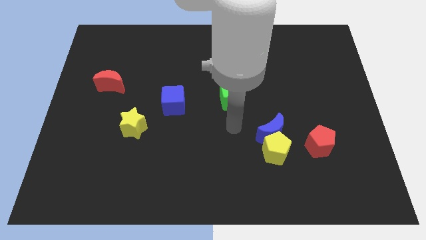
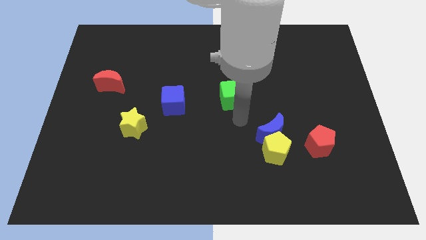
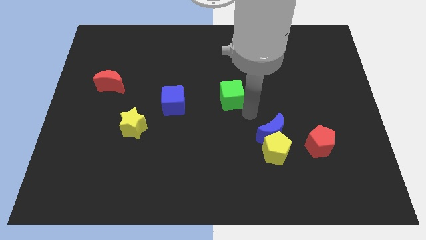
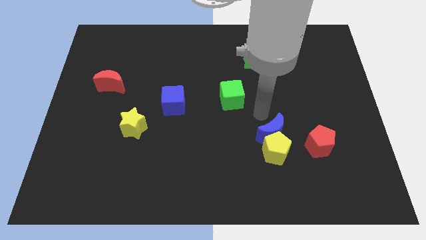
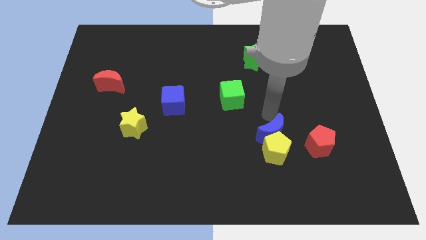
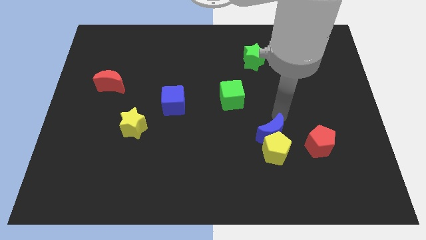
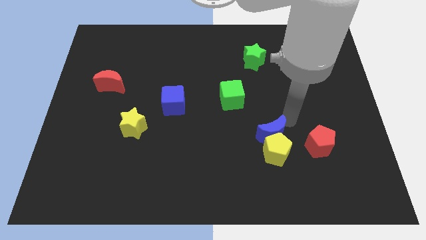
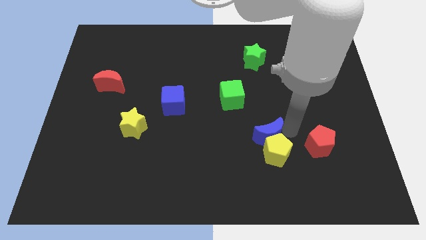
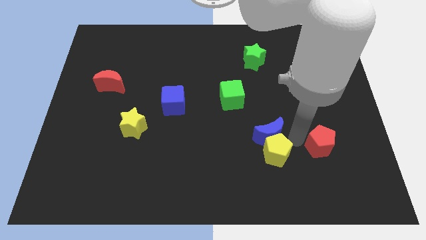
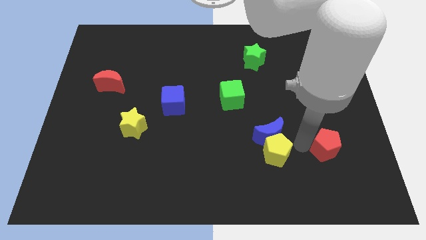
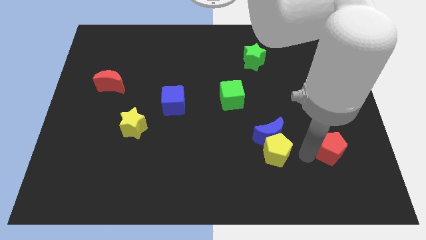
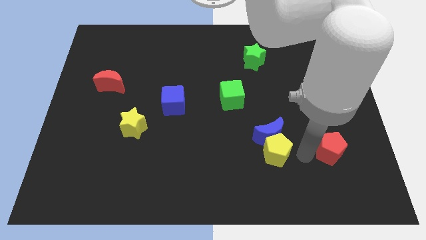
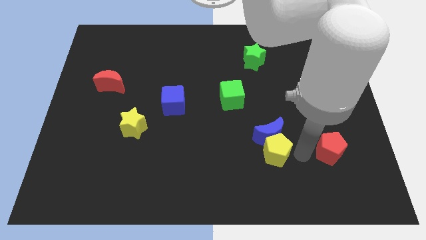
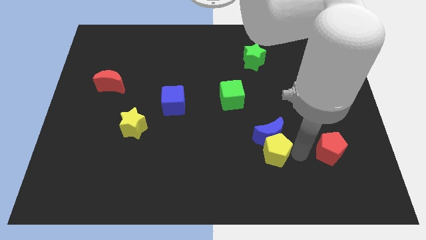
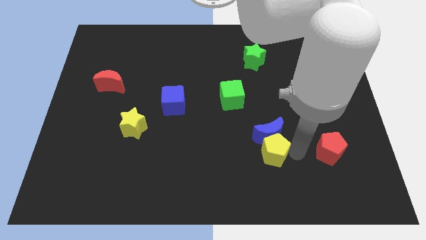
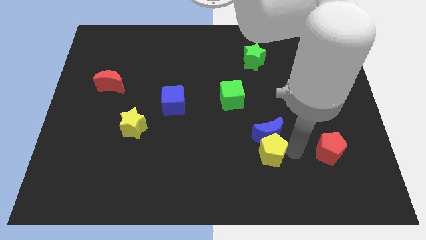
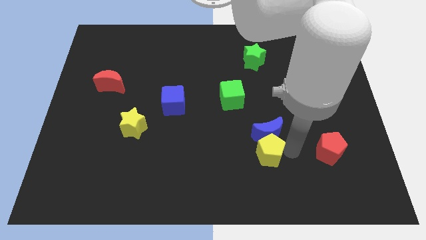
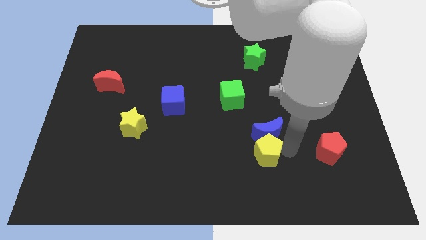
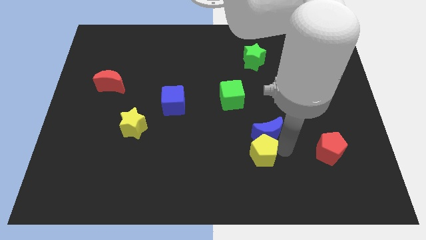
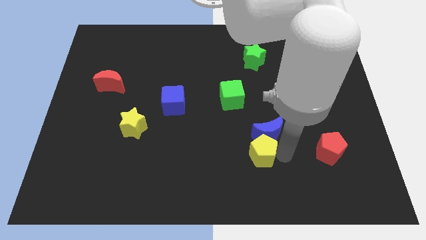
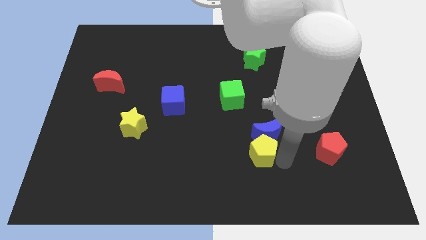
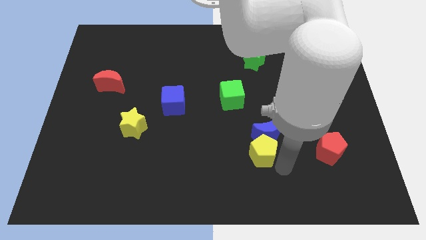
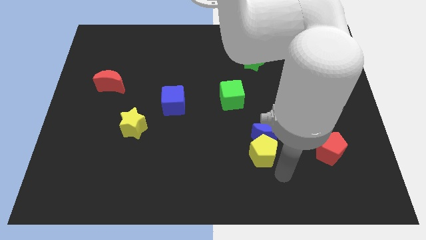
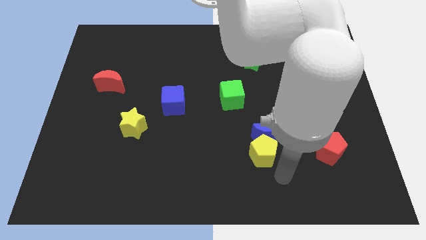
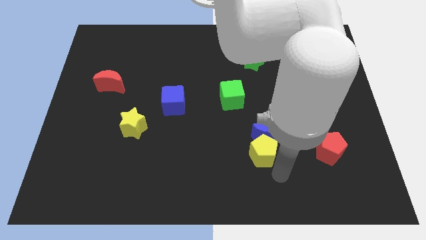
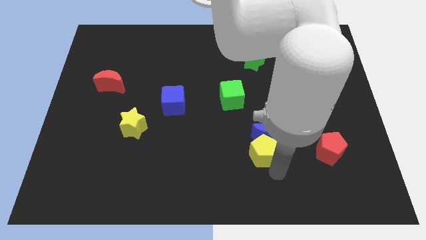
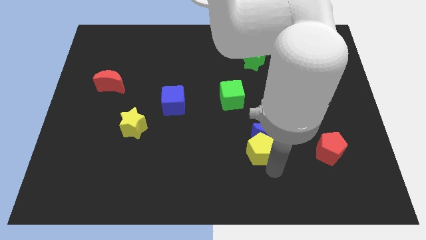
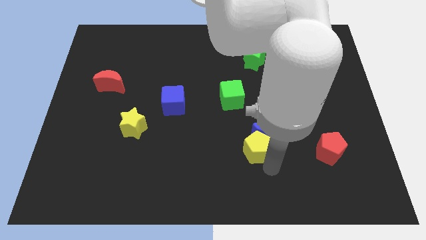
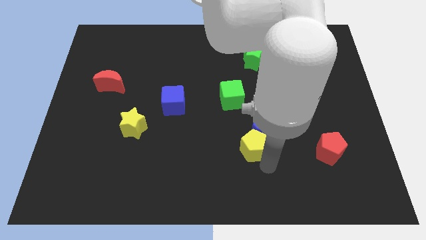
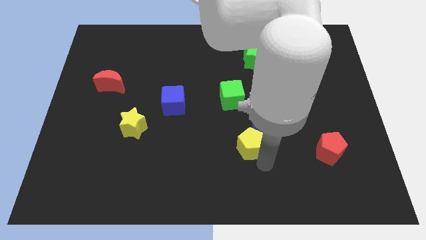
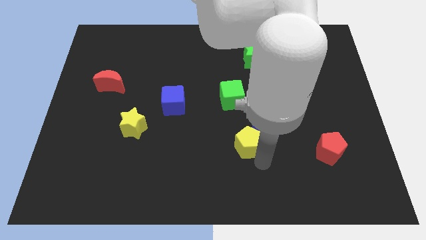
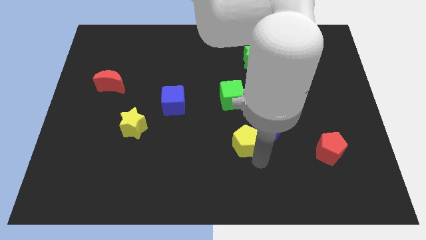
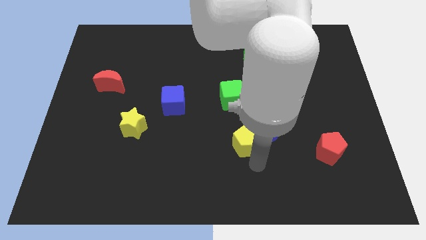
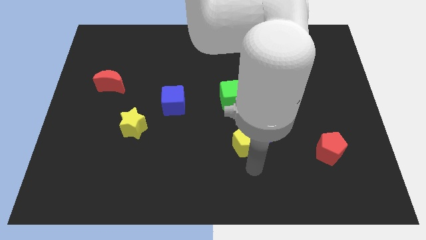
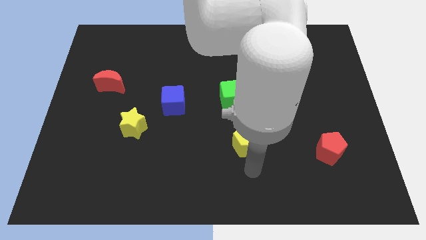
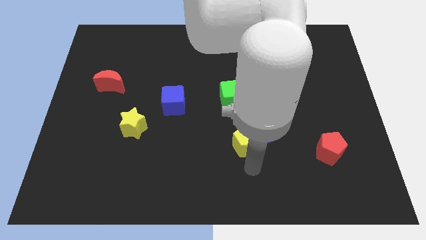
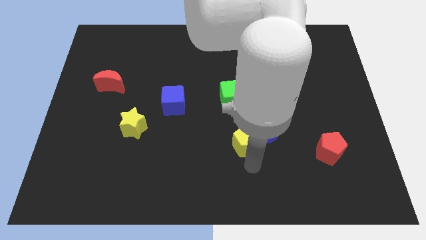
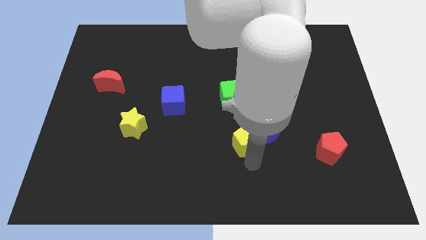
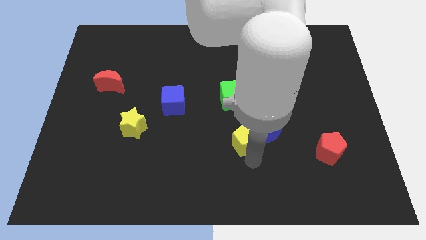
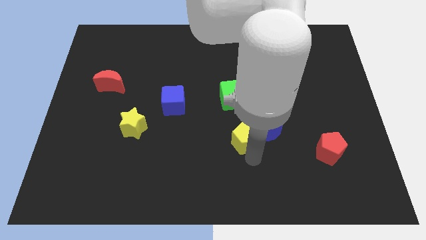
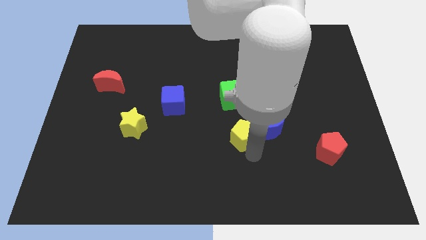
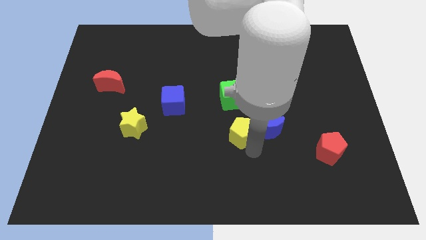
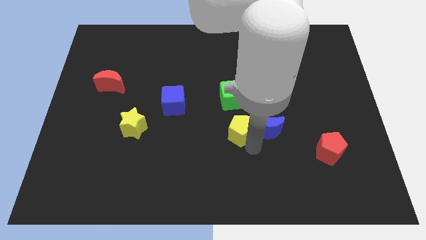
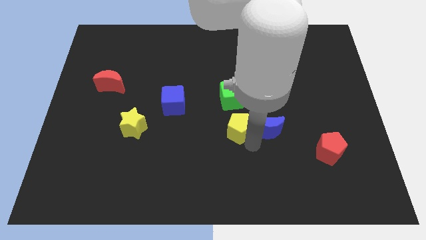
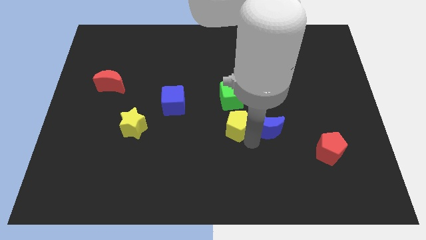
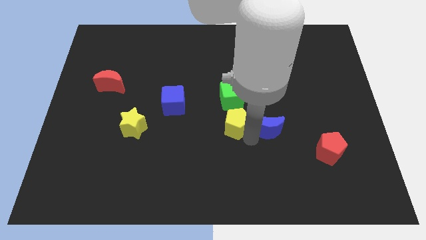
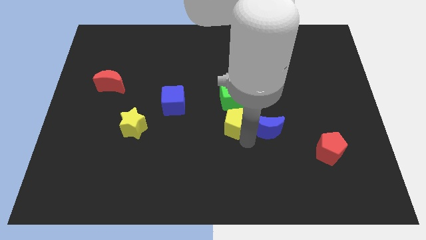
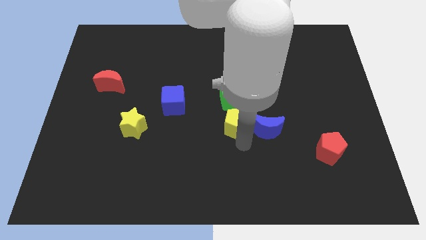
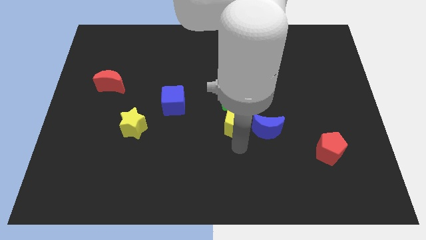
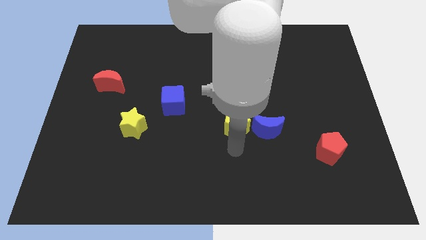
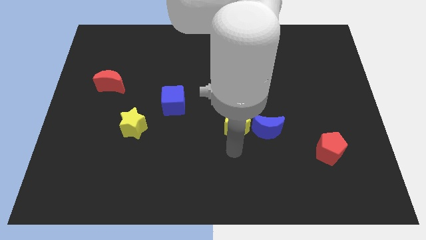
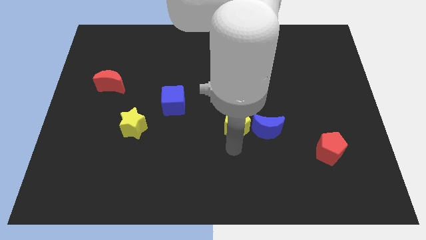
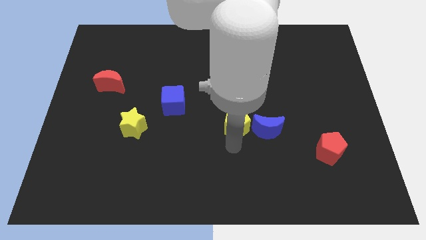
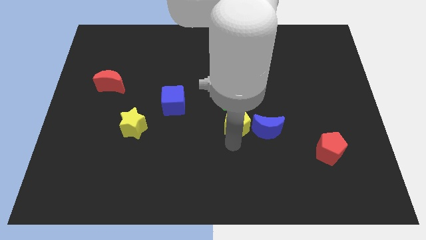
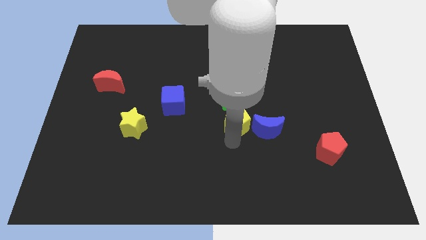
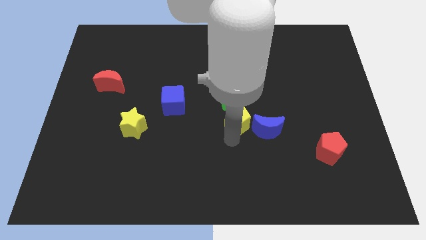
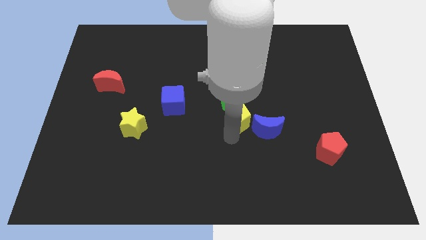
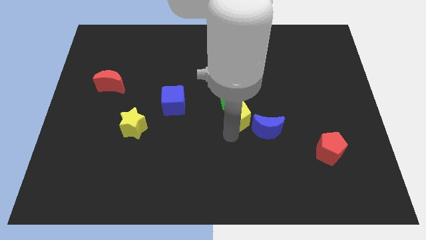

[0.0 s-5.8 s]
slide the yellow pentagon to the green cube
